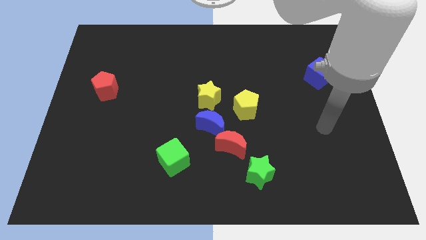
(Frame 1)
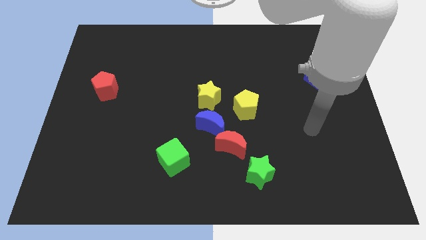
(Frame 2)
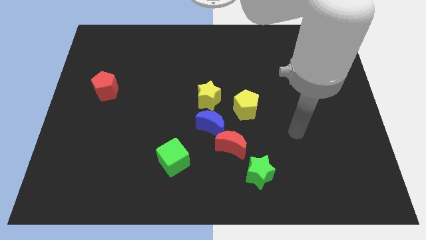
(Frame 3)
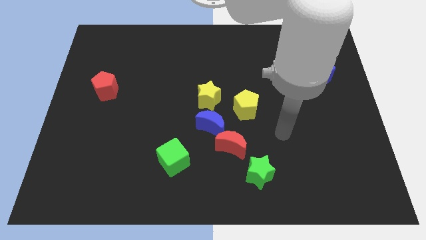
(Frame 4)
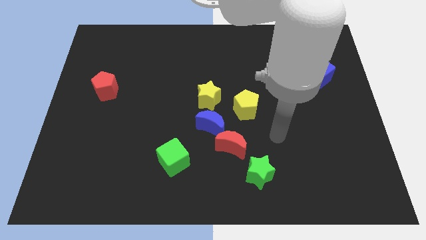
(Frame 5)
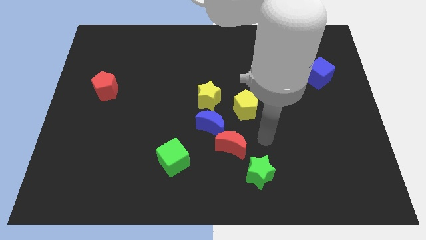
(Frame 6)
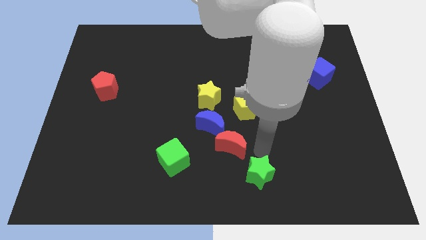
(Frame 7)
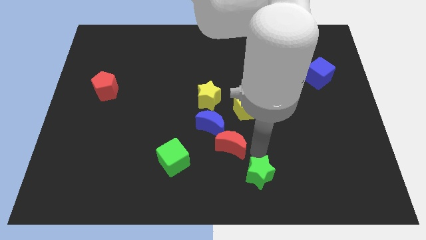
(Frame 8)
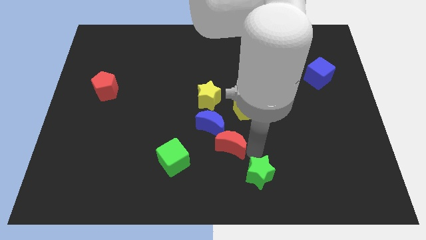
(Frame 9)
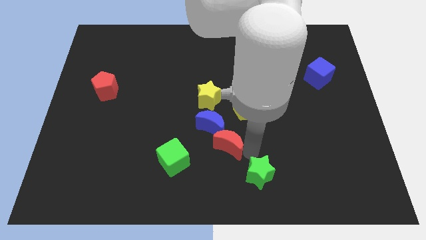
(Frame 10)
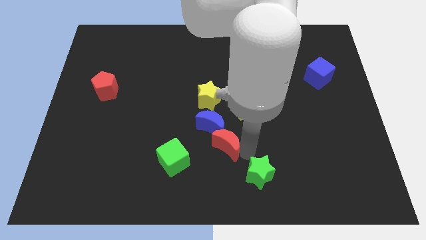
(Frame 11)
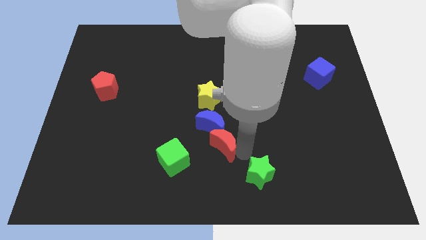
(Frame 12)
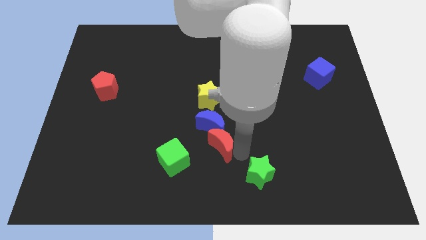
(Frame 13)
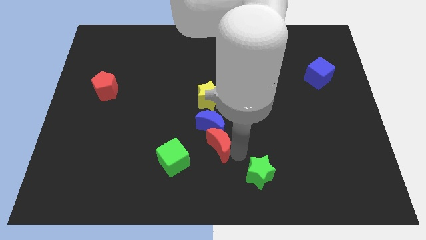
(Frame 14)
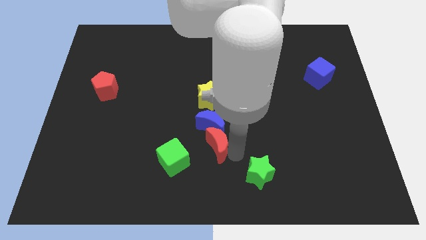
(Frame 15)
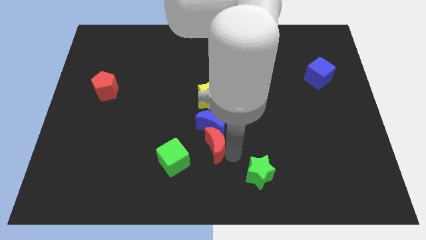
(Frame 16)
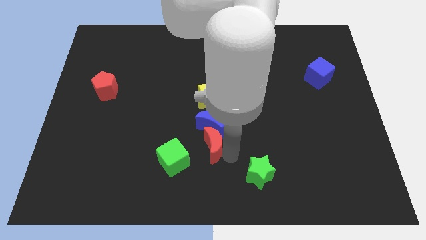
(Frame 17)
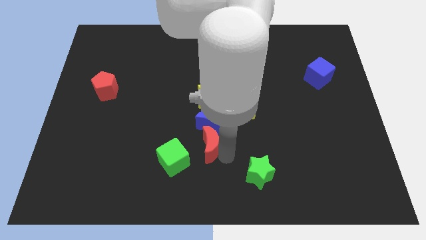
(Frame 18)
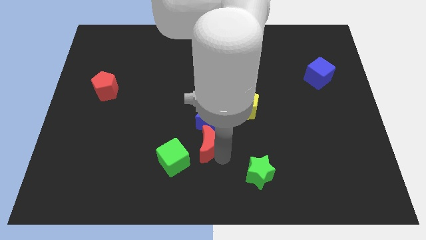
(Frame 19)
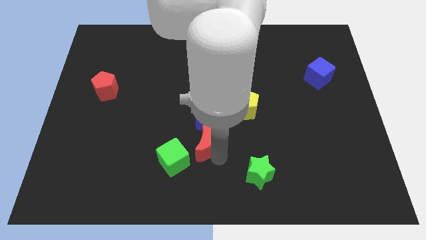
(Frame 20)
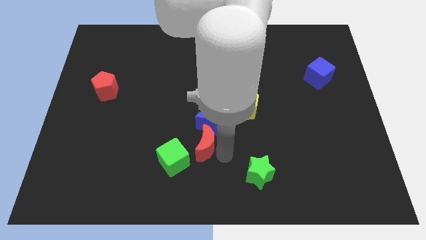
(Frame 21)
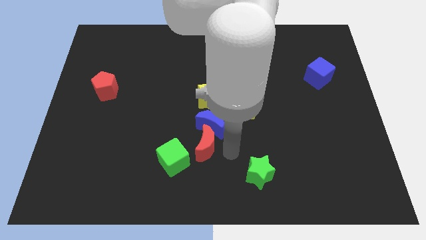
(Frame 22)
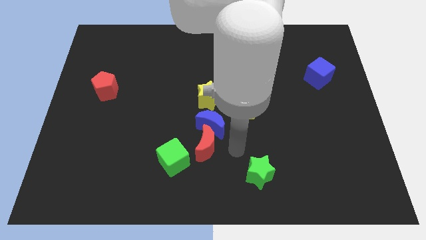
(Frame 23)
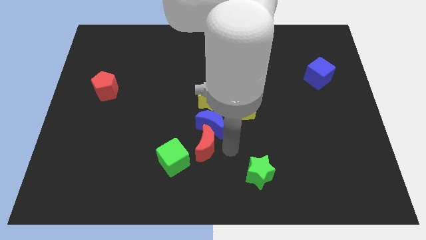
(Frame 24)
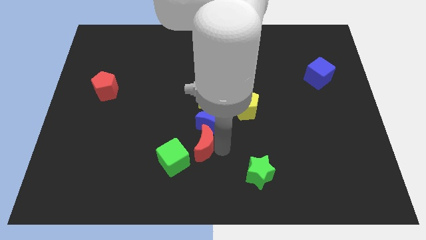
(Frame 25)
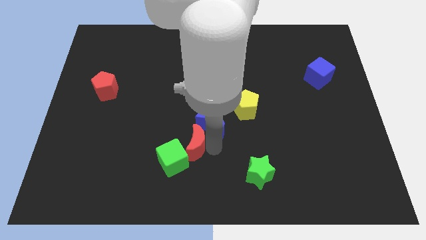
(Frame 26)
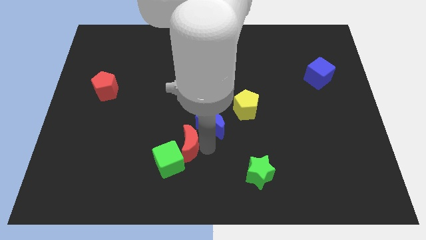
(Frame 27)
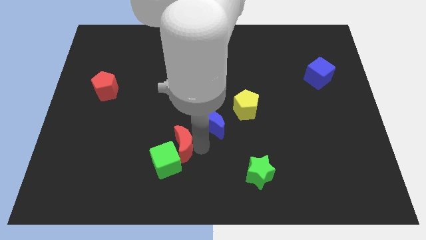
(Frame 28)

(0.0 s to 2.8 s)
pull the red moon apart from the blue moon and green star

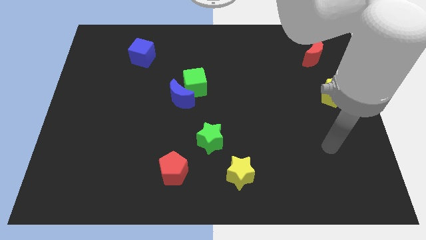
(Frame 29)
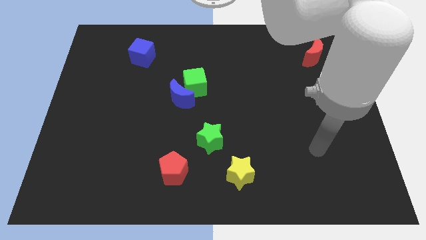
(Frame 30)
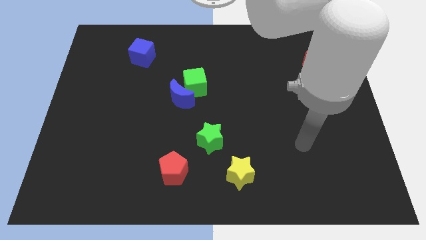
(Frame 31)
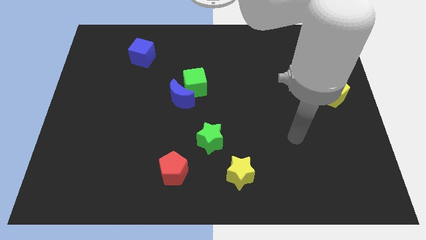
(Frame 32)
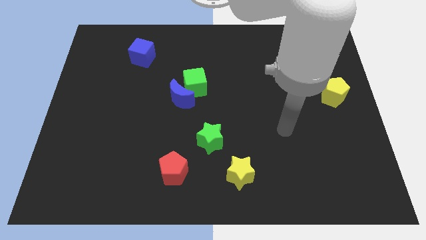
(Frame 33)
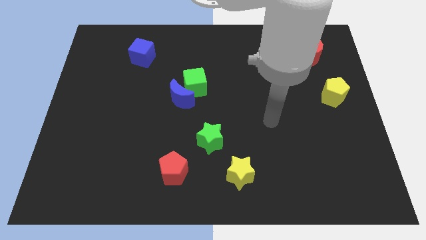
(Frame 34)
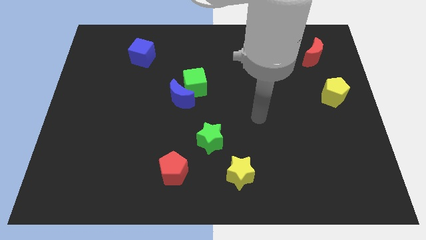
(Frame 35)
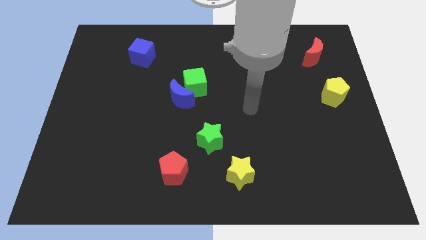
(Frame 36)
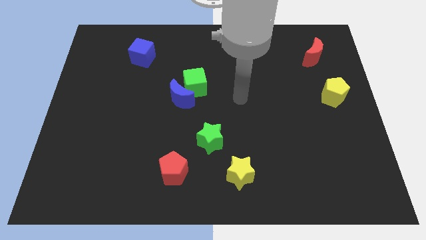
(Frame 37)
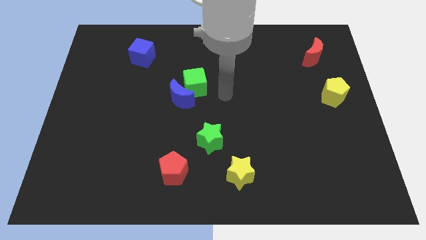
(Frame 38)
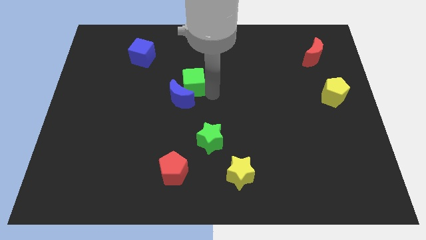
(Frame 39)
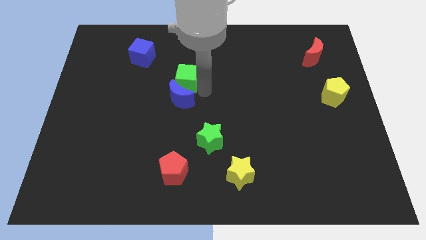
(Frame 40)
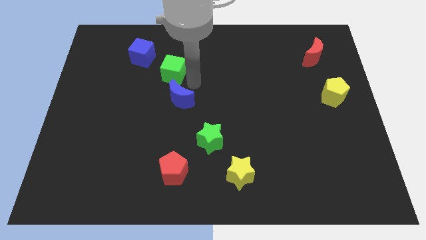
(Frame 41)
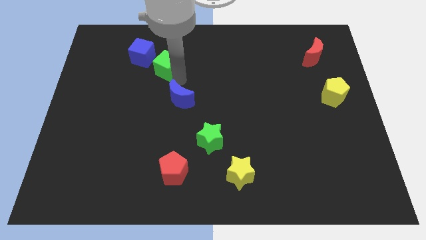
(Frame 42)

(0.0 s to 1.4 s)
move the blue moon away from the green cube

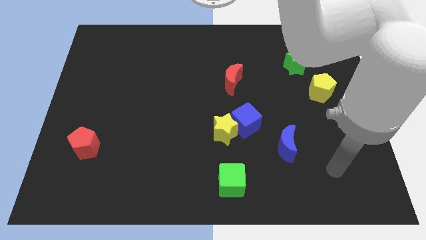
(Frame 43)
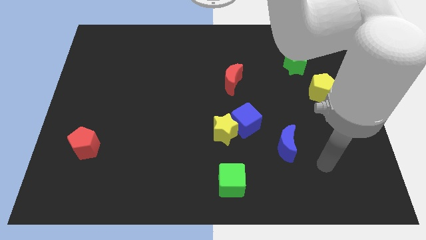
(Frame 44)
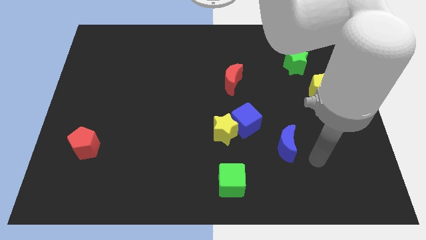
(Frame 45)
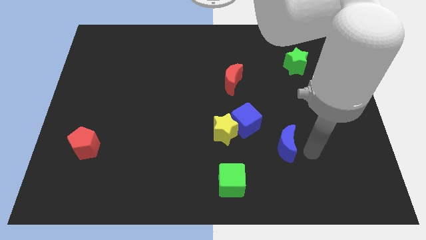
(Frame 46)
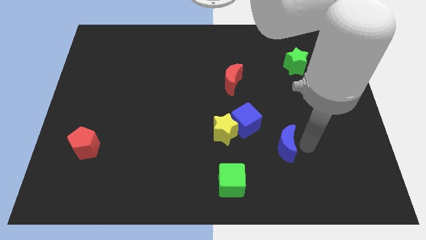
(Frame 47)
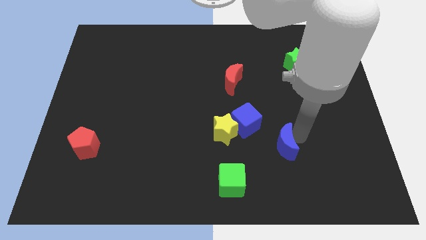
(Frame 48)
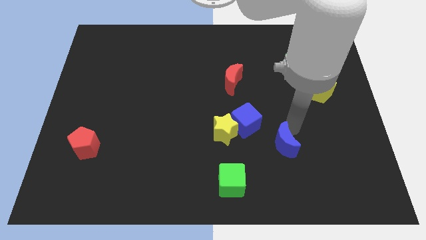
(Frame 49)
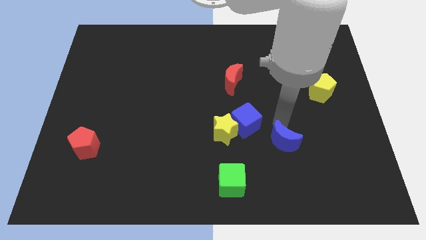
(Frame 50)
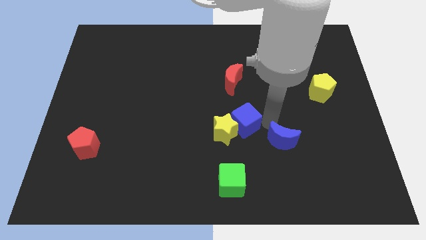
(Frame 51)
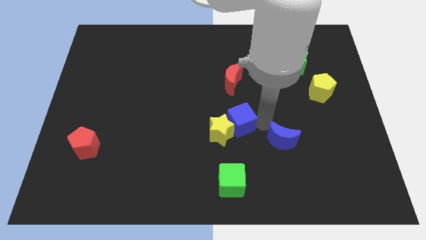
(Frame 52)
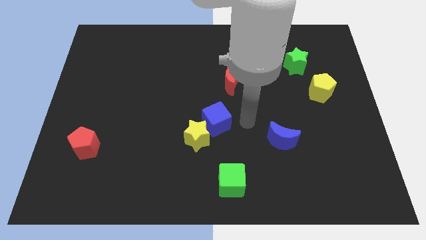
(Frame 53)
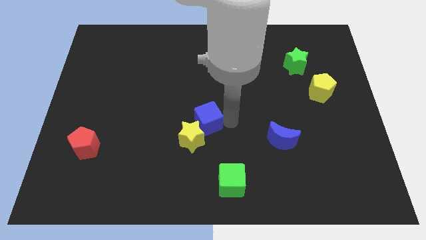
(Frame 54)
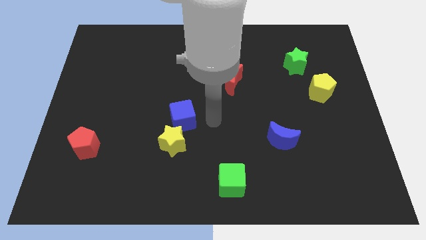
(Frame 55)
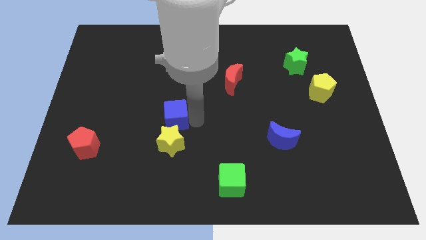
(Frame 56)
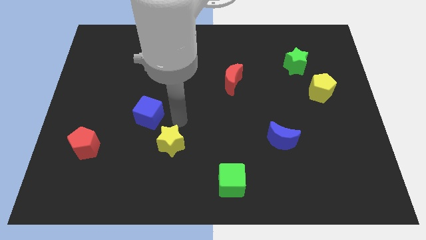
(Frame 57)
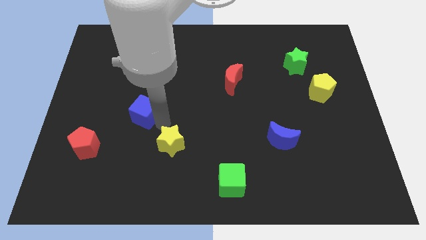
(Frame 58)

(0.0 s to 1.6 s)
move the yellow star away from the blue cube

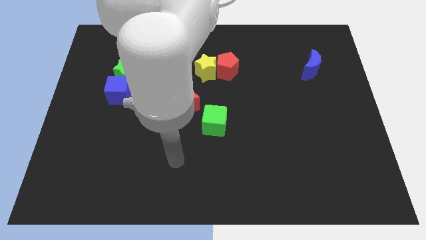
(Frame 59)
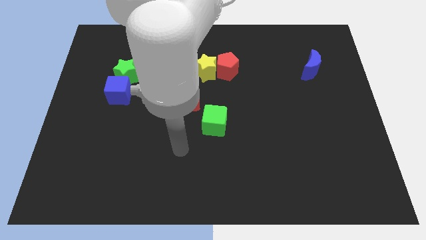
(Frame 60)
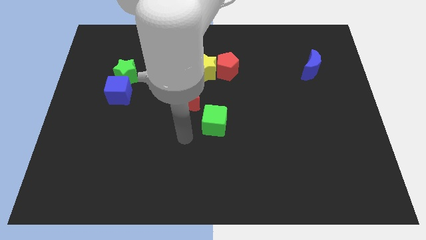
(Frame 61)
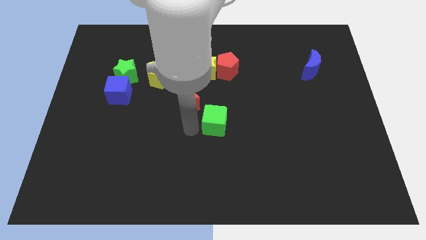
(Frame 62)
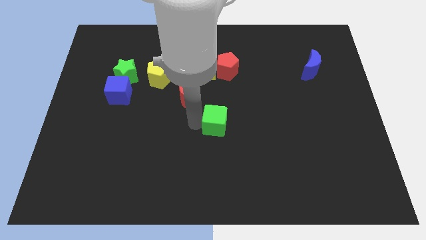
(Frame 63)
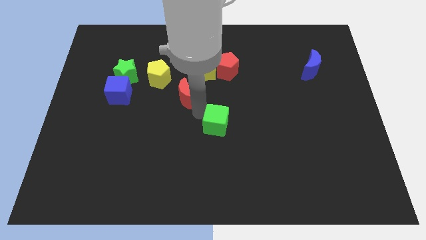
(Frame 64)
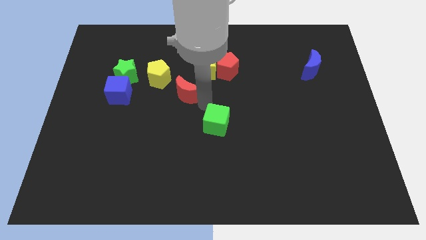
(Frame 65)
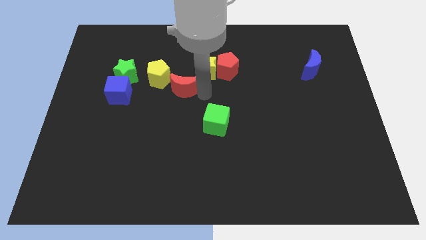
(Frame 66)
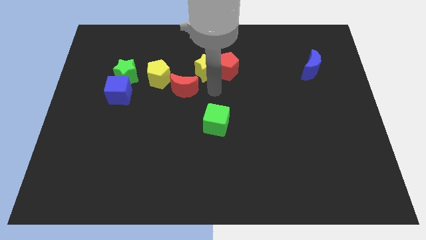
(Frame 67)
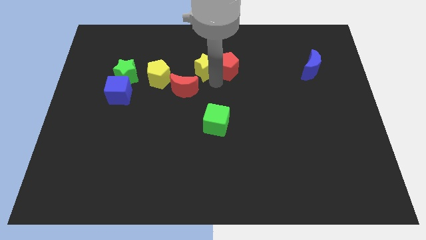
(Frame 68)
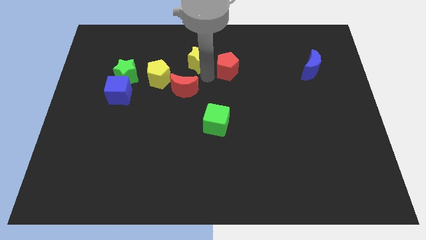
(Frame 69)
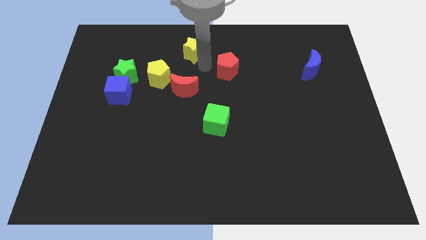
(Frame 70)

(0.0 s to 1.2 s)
pull the red pentagon apart from the yellow star

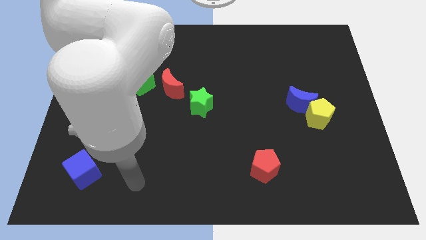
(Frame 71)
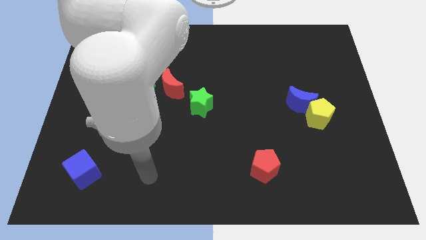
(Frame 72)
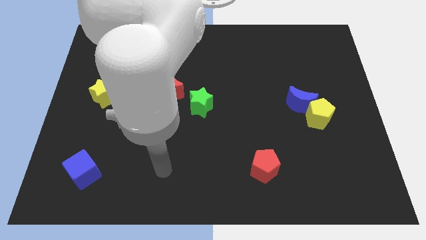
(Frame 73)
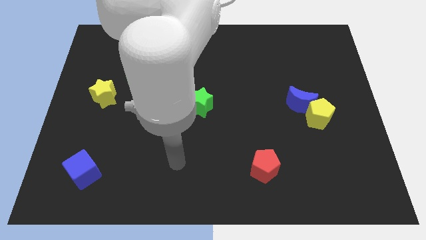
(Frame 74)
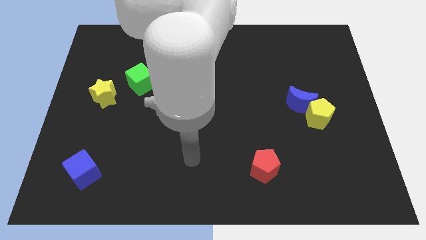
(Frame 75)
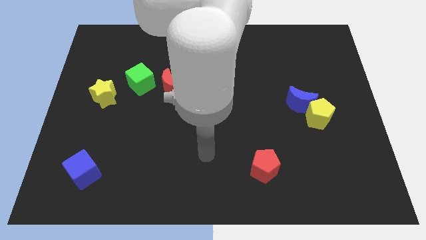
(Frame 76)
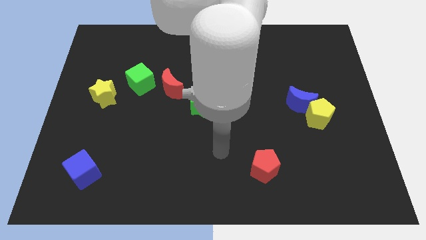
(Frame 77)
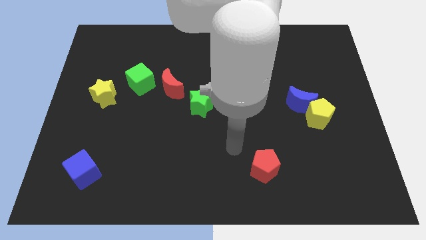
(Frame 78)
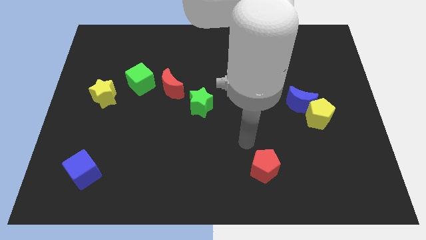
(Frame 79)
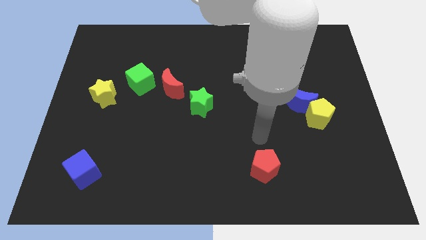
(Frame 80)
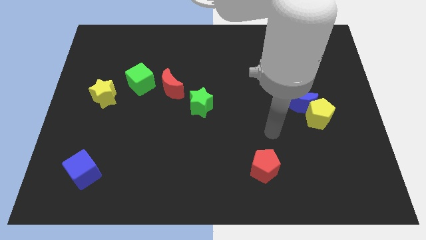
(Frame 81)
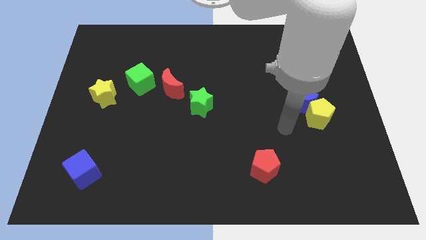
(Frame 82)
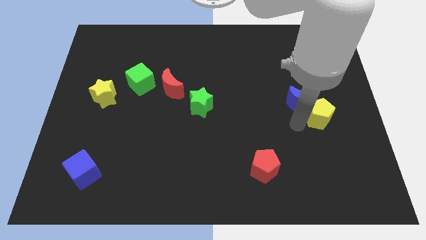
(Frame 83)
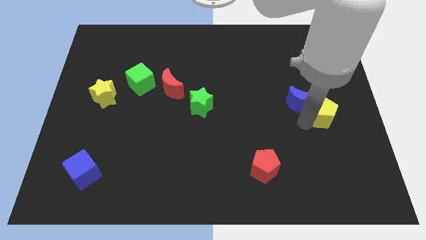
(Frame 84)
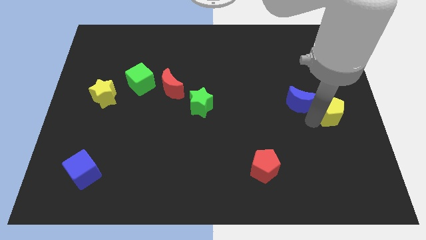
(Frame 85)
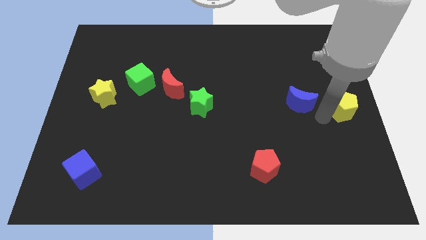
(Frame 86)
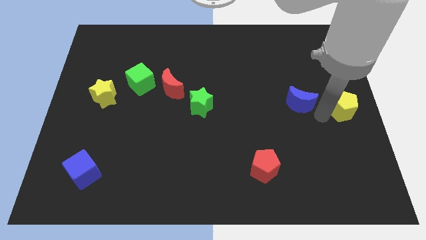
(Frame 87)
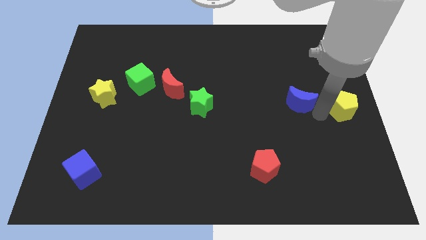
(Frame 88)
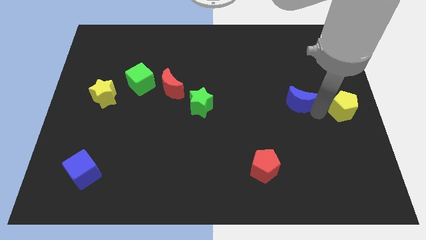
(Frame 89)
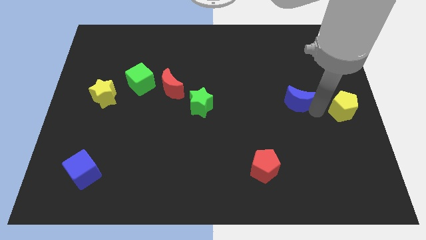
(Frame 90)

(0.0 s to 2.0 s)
pull the blue moon apart from the yellow pentagon

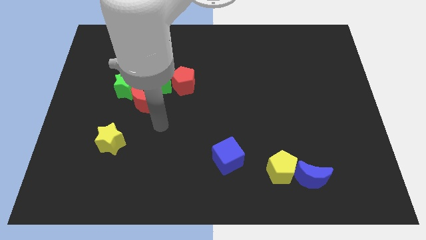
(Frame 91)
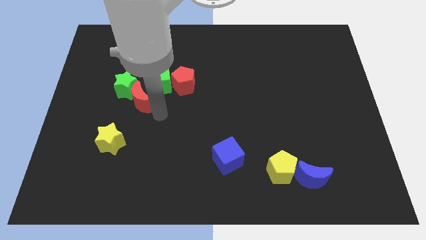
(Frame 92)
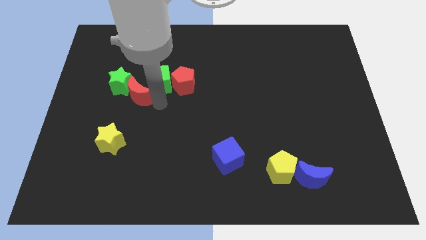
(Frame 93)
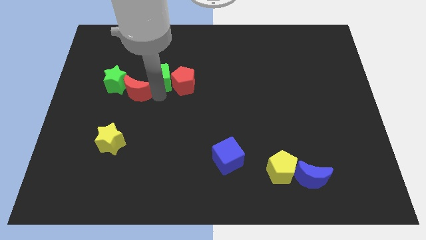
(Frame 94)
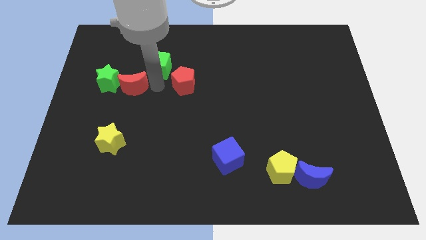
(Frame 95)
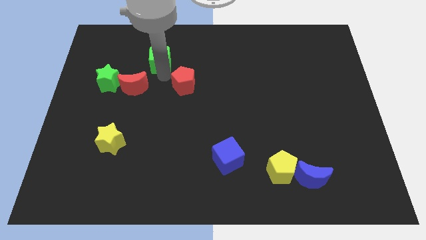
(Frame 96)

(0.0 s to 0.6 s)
separate the red pentagon from the green cube
